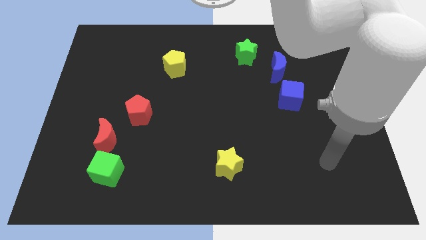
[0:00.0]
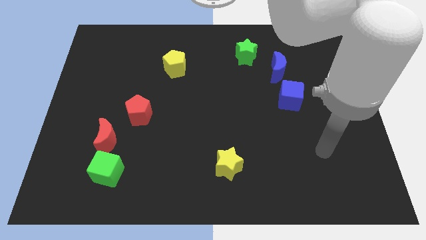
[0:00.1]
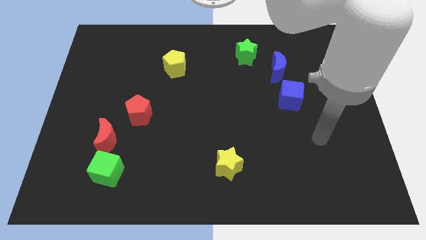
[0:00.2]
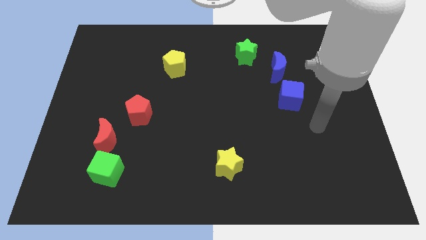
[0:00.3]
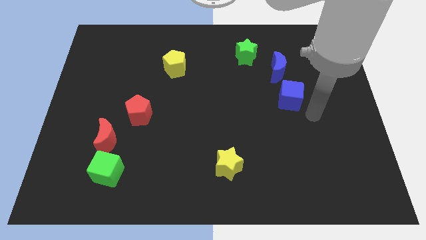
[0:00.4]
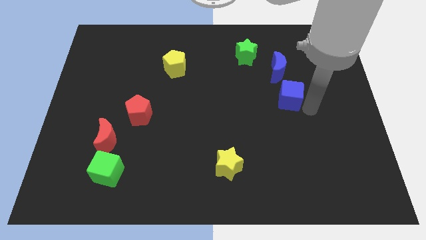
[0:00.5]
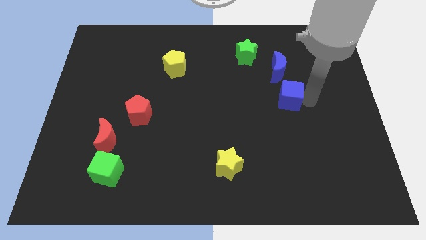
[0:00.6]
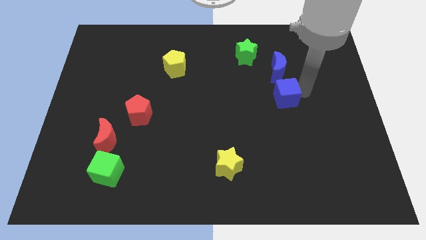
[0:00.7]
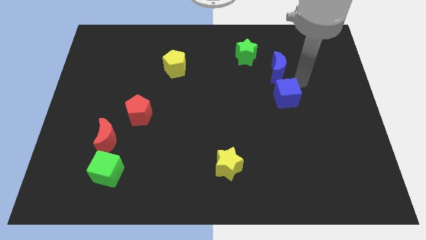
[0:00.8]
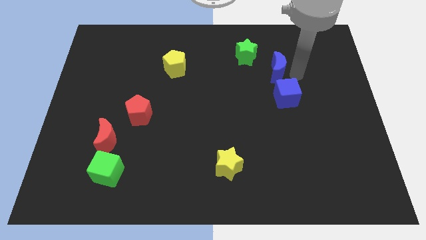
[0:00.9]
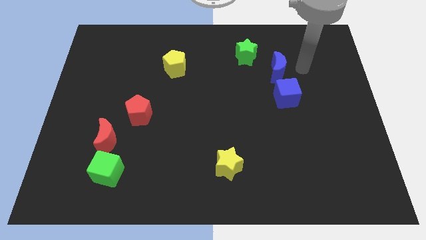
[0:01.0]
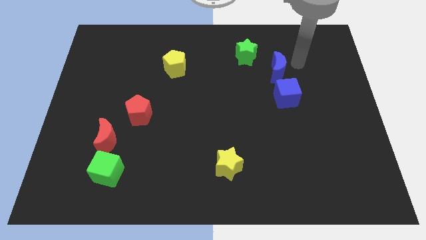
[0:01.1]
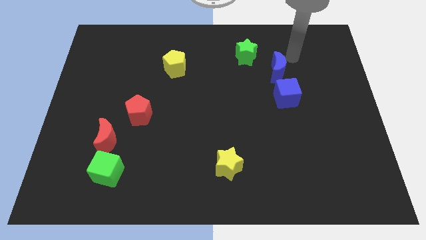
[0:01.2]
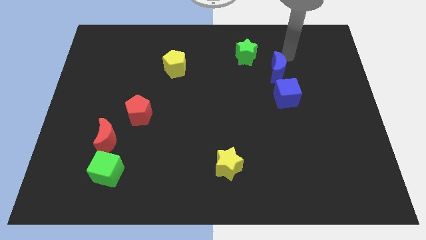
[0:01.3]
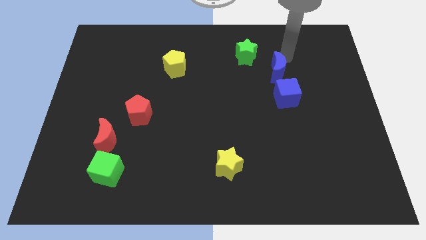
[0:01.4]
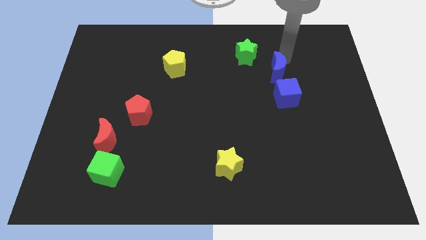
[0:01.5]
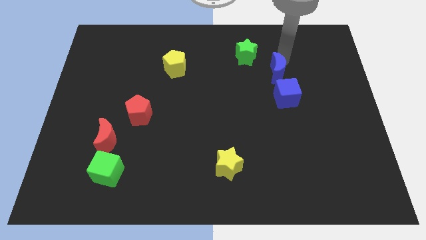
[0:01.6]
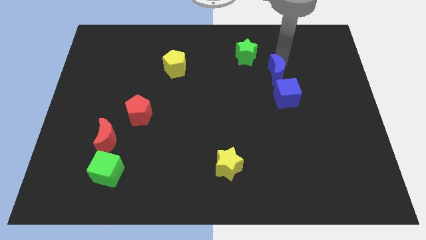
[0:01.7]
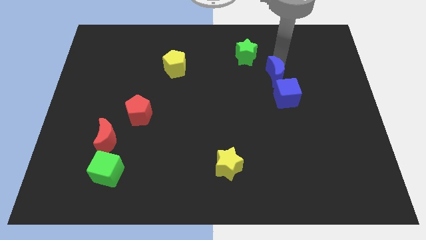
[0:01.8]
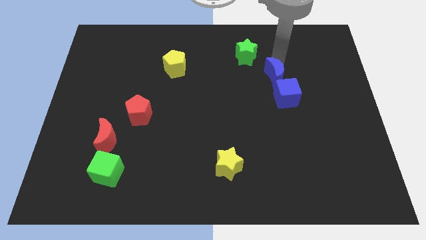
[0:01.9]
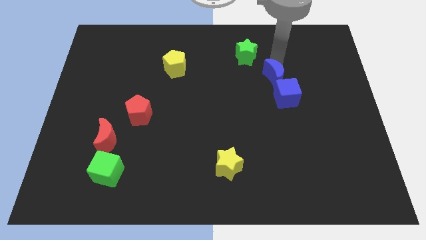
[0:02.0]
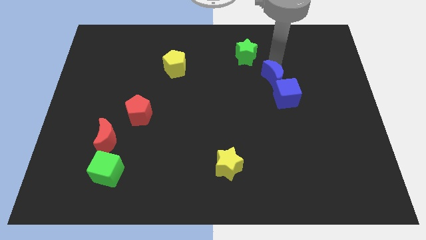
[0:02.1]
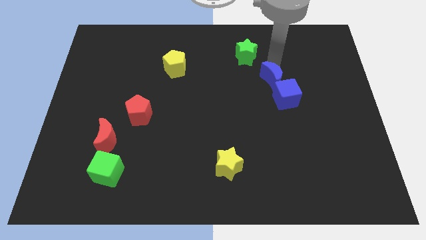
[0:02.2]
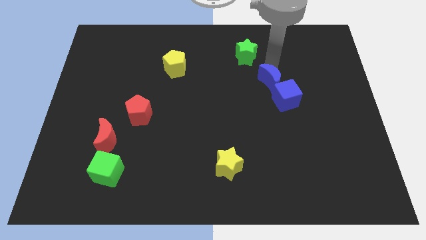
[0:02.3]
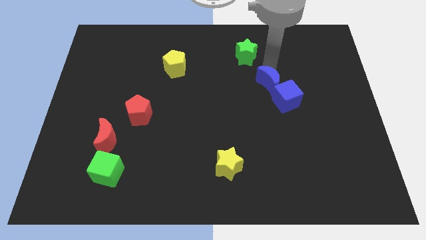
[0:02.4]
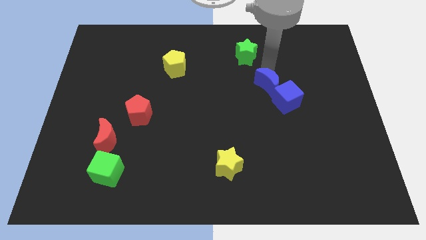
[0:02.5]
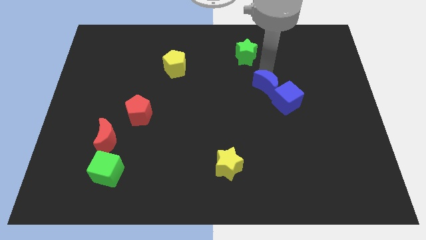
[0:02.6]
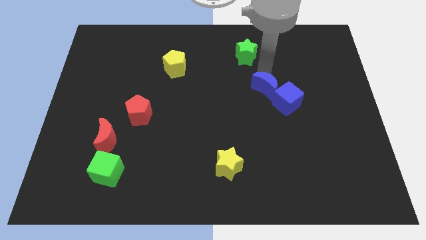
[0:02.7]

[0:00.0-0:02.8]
slightly move the blue moon down and then to the left

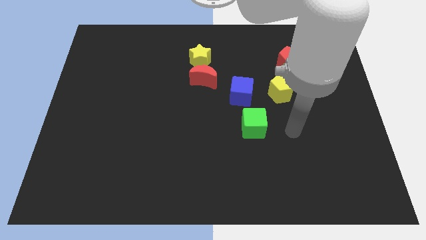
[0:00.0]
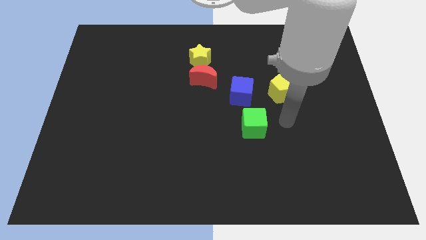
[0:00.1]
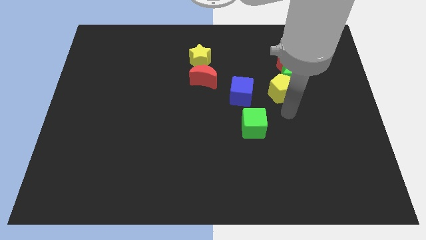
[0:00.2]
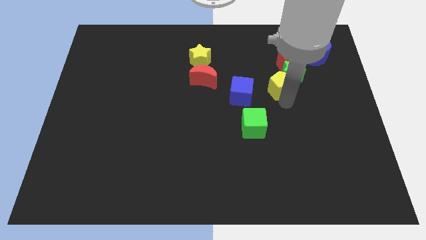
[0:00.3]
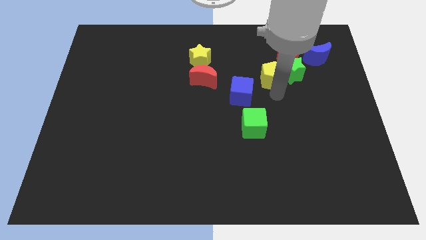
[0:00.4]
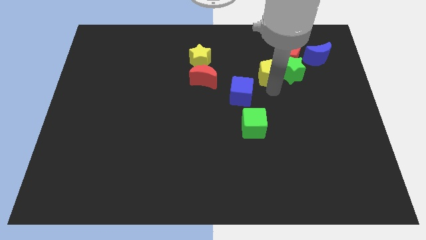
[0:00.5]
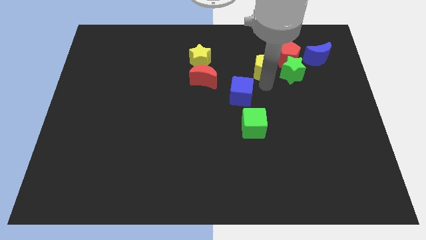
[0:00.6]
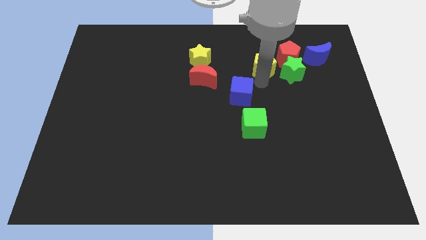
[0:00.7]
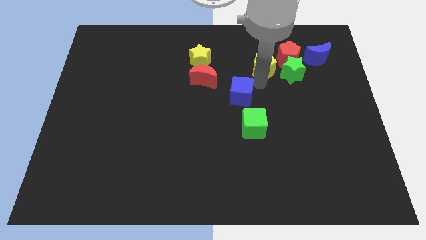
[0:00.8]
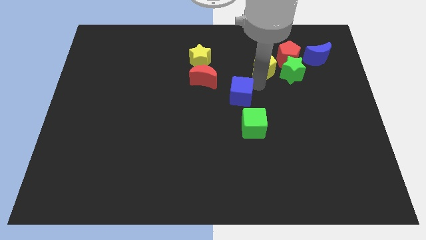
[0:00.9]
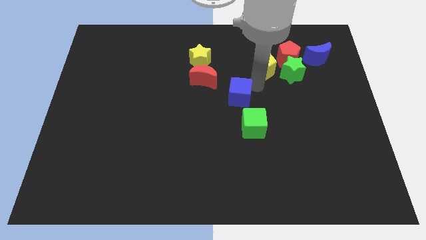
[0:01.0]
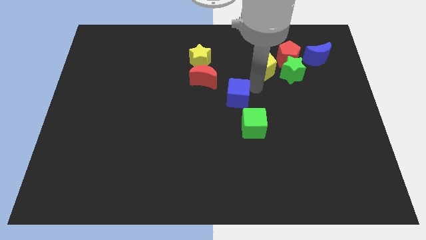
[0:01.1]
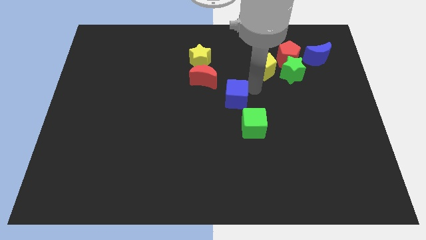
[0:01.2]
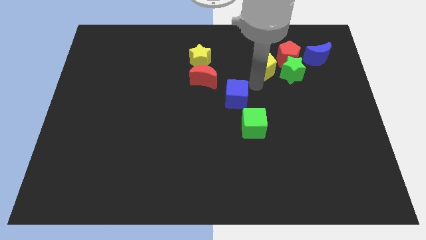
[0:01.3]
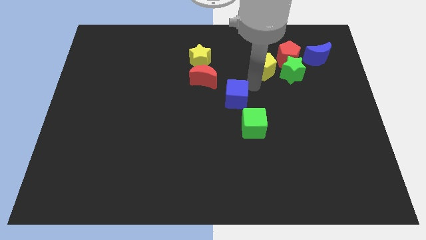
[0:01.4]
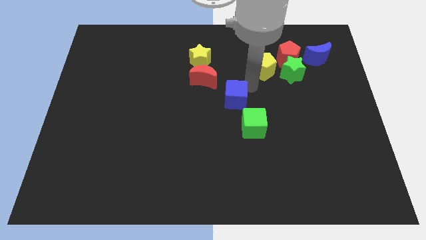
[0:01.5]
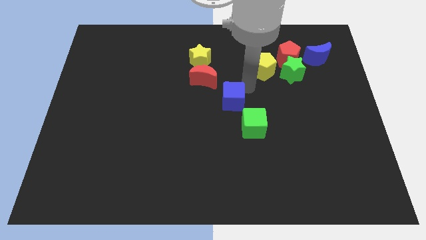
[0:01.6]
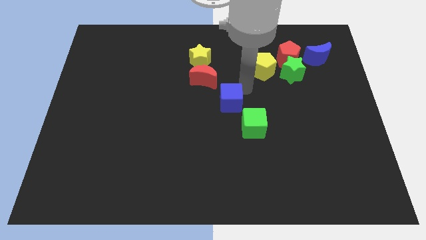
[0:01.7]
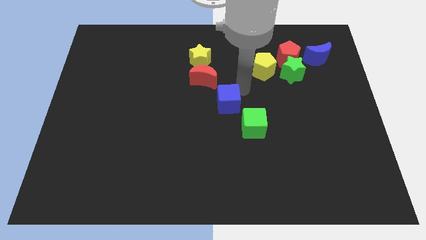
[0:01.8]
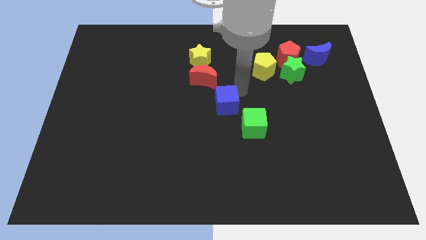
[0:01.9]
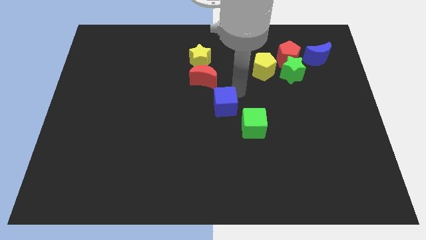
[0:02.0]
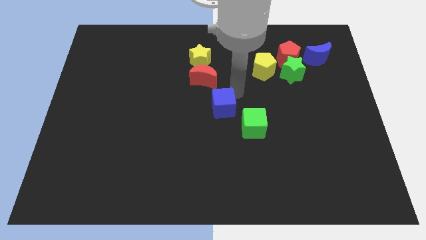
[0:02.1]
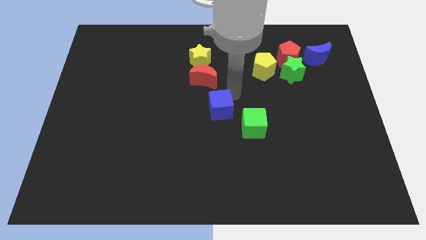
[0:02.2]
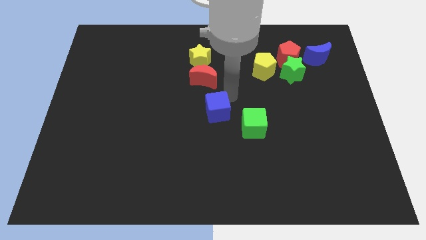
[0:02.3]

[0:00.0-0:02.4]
move the blue cube a bit downwards and left

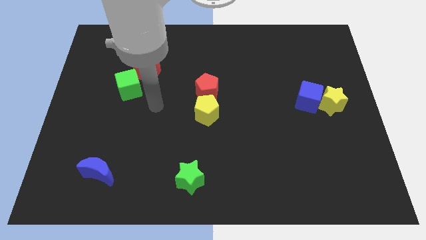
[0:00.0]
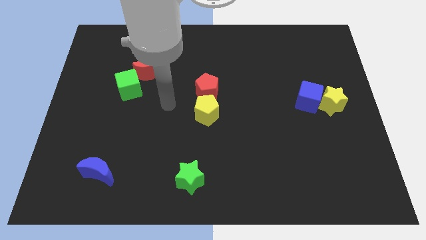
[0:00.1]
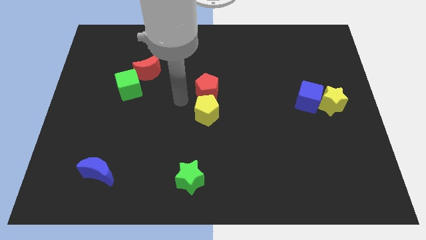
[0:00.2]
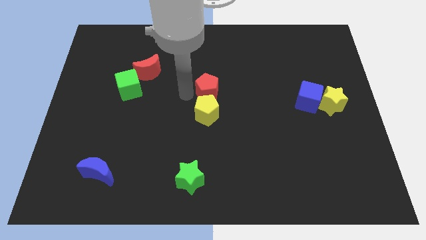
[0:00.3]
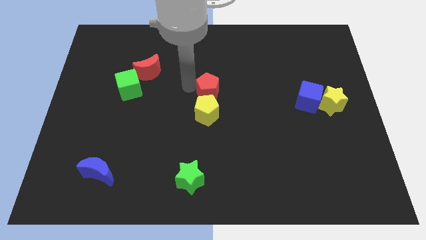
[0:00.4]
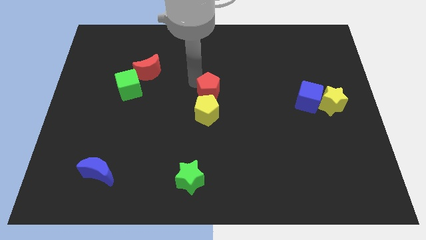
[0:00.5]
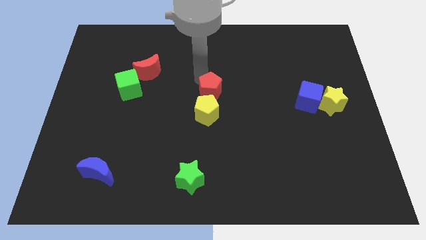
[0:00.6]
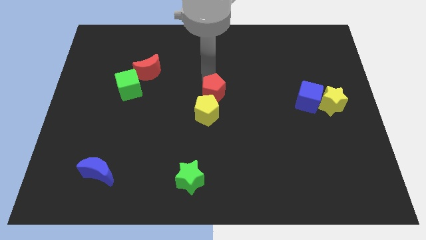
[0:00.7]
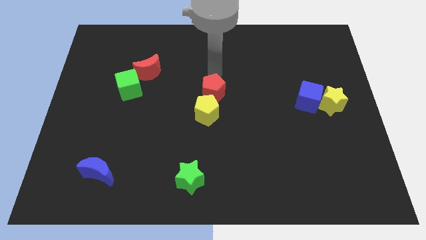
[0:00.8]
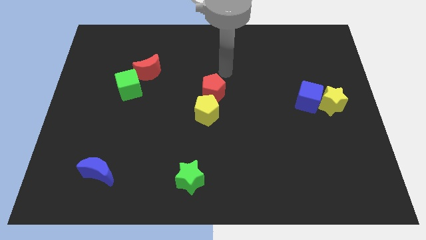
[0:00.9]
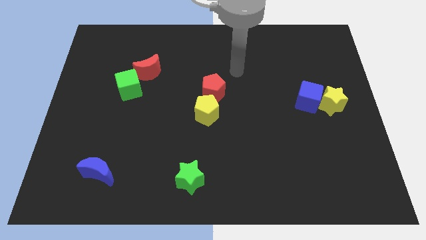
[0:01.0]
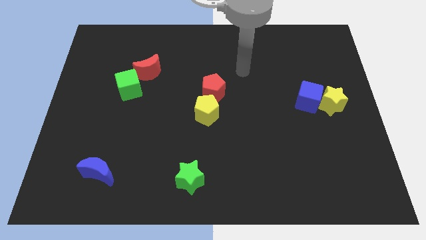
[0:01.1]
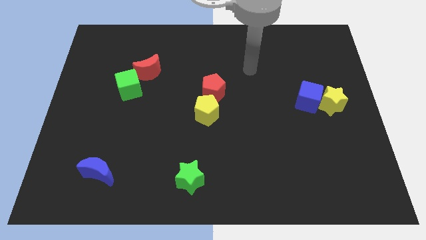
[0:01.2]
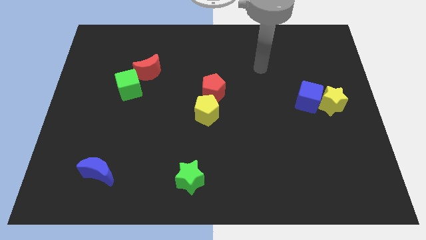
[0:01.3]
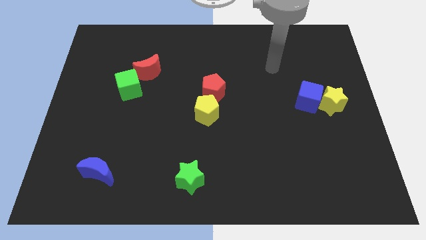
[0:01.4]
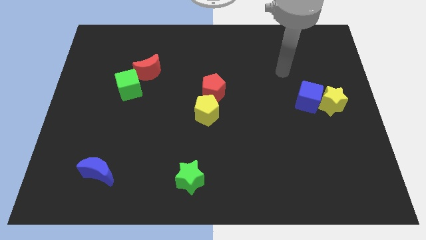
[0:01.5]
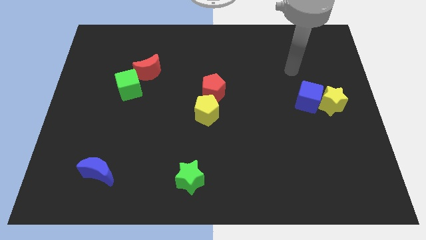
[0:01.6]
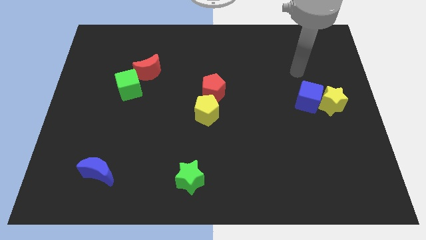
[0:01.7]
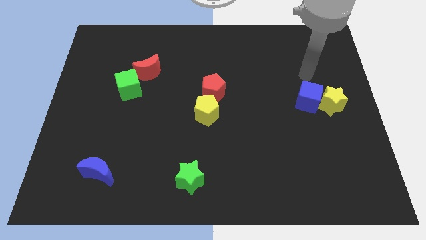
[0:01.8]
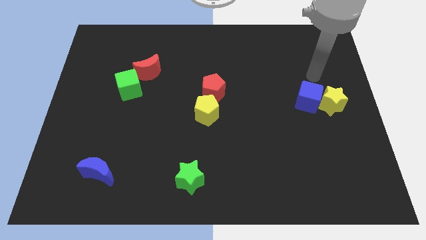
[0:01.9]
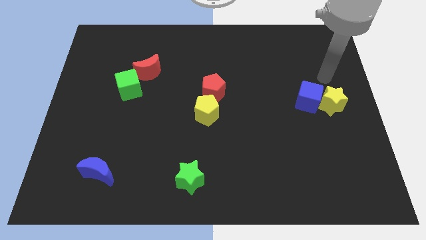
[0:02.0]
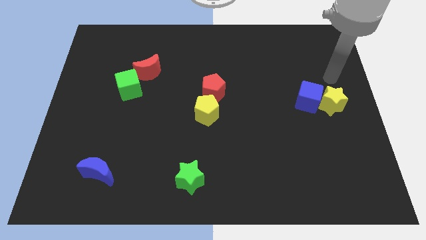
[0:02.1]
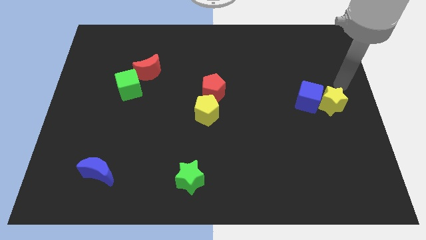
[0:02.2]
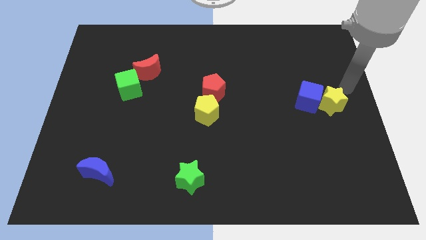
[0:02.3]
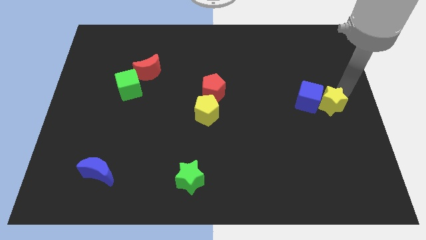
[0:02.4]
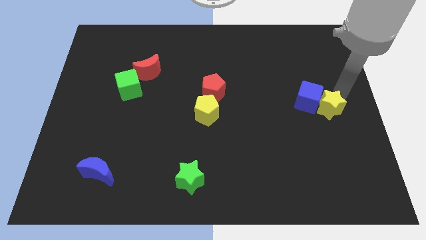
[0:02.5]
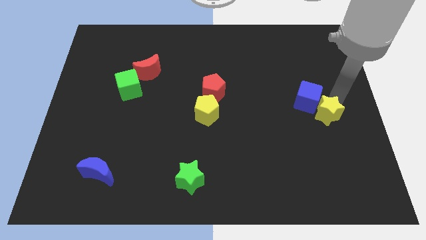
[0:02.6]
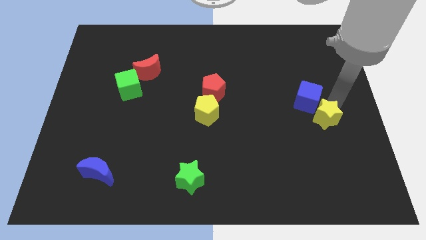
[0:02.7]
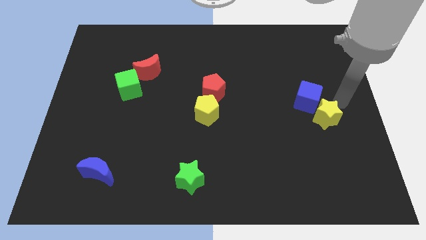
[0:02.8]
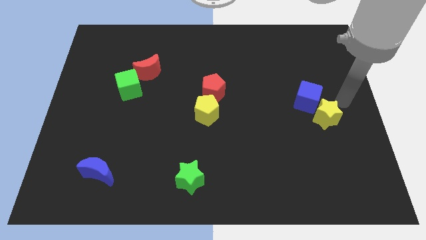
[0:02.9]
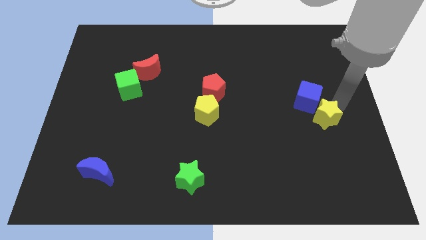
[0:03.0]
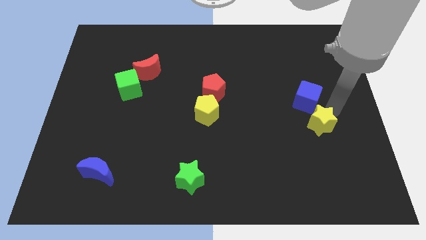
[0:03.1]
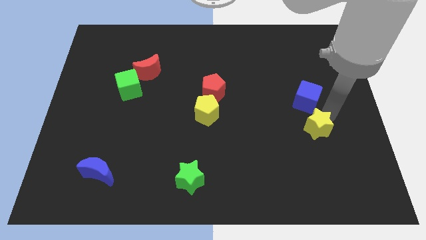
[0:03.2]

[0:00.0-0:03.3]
move the yellow star down and then to the left a little

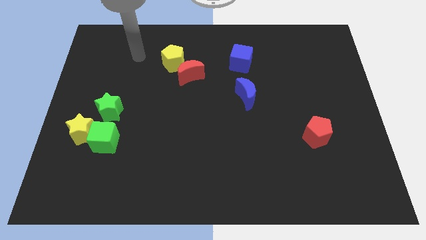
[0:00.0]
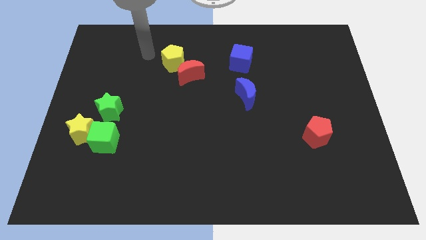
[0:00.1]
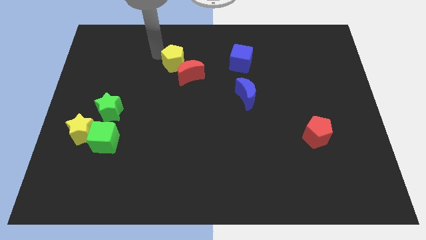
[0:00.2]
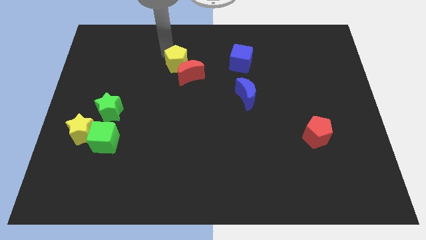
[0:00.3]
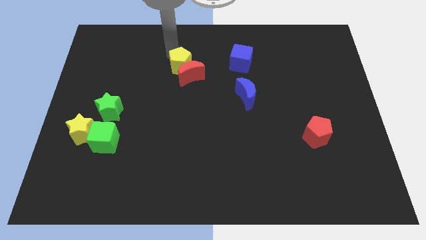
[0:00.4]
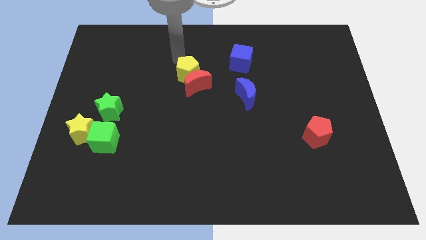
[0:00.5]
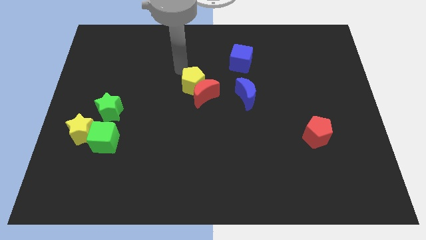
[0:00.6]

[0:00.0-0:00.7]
push the red moon a little bit down and to the right diagonally
